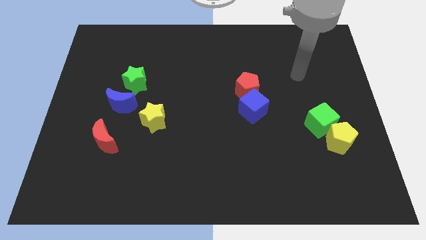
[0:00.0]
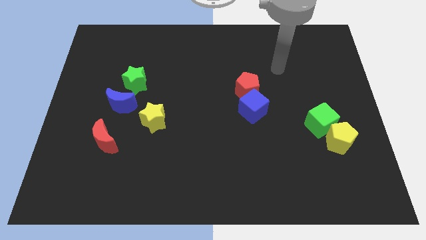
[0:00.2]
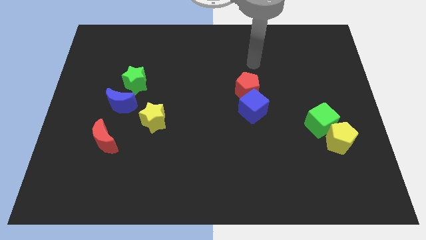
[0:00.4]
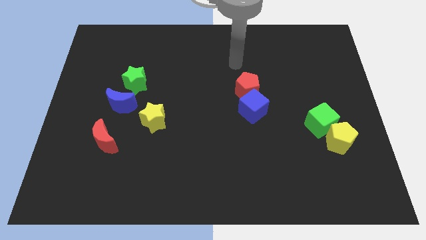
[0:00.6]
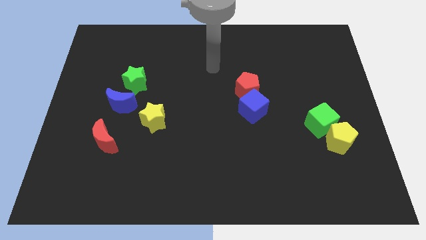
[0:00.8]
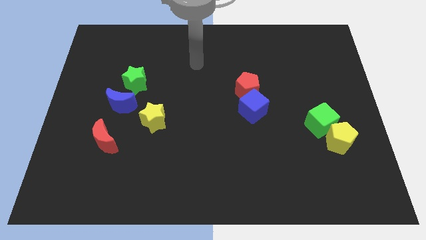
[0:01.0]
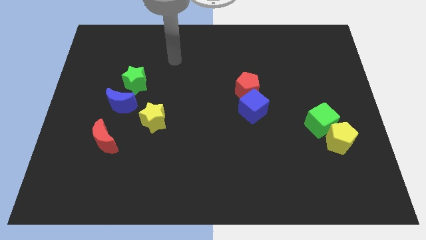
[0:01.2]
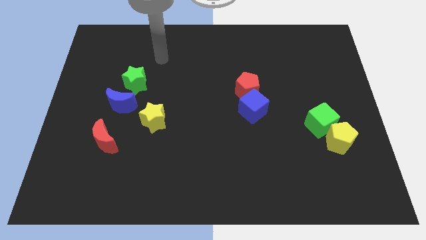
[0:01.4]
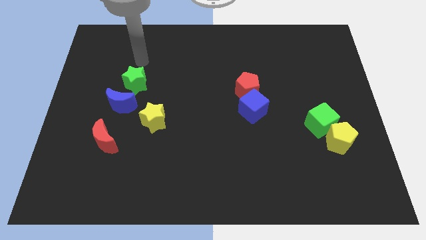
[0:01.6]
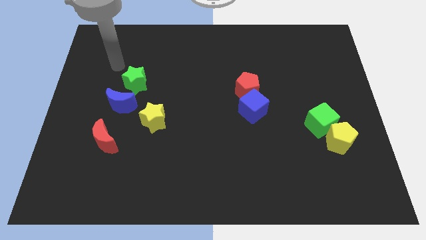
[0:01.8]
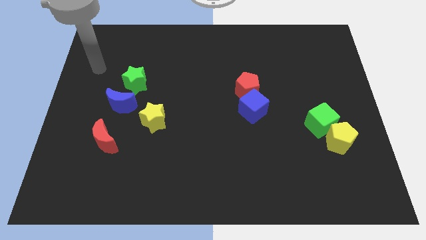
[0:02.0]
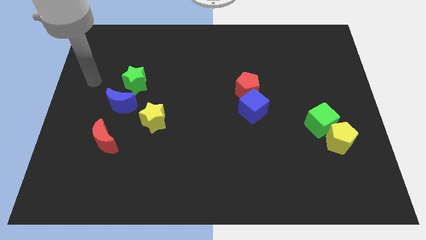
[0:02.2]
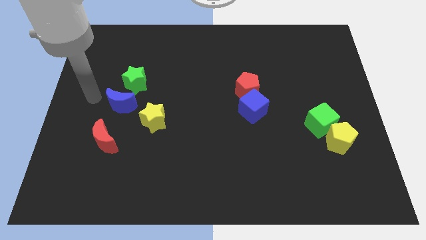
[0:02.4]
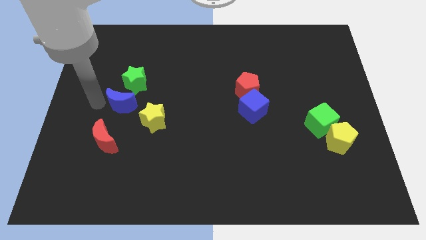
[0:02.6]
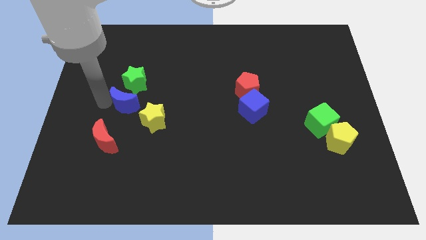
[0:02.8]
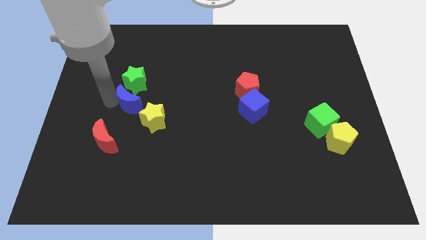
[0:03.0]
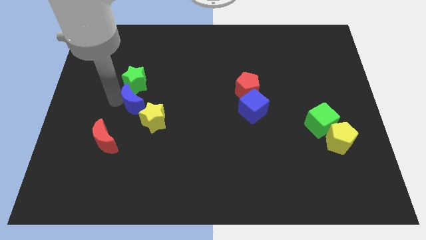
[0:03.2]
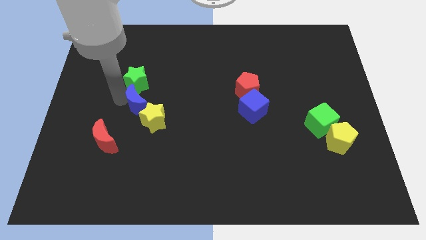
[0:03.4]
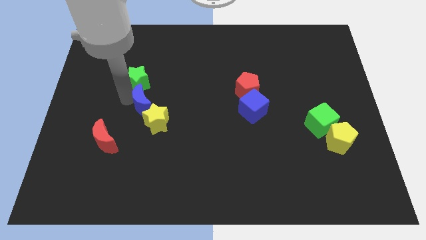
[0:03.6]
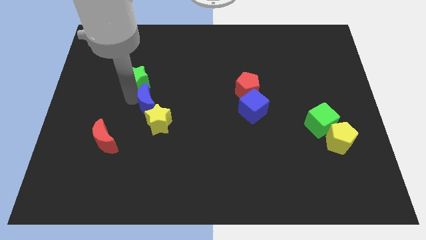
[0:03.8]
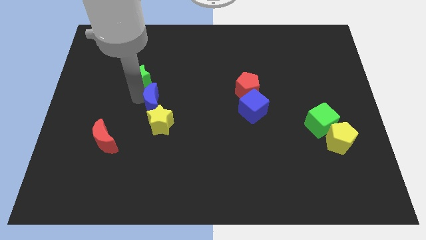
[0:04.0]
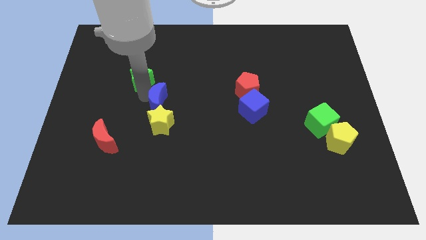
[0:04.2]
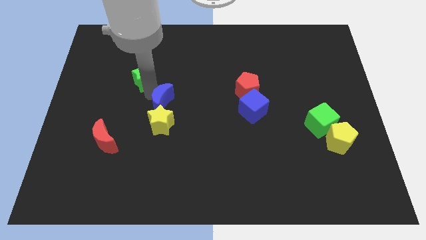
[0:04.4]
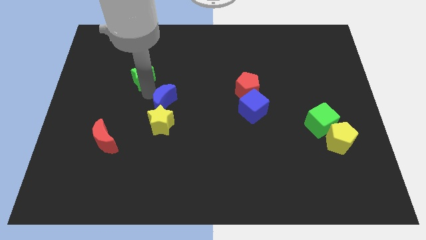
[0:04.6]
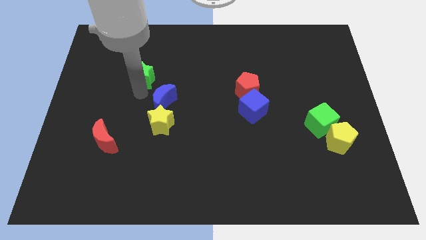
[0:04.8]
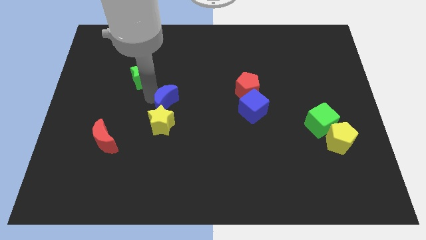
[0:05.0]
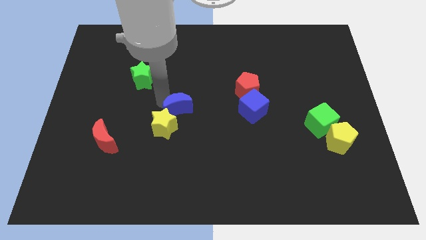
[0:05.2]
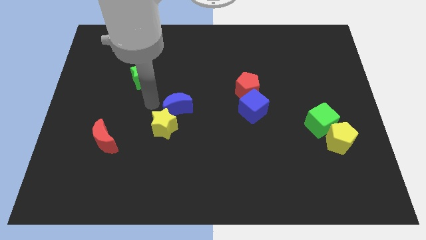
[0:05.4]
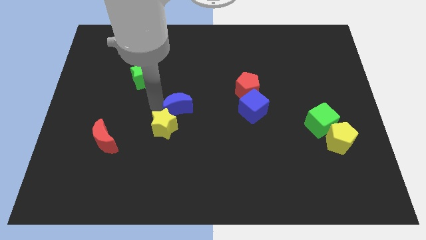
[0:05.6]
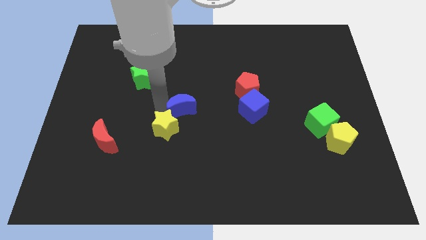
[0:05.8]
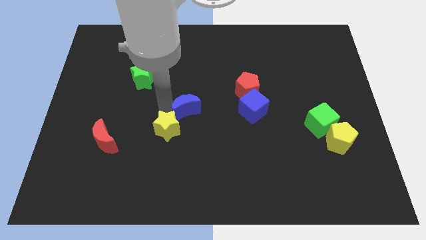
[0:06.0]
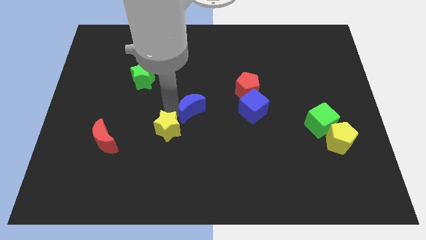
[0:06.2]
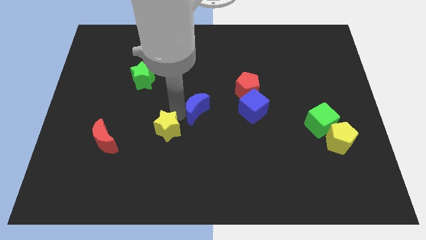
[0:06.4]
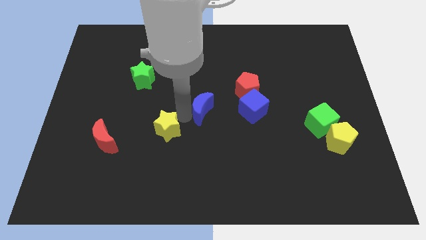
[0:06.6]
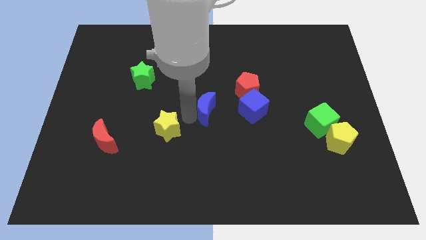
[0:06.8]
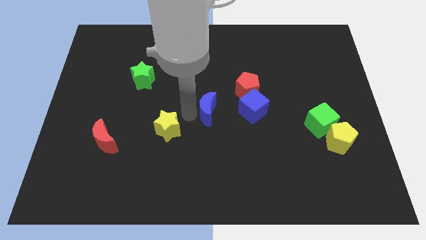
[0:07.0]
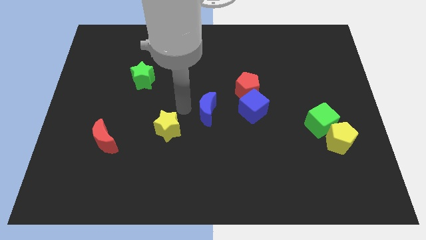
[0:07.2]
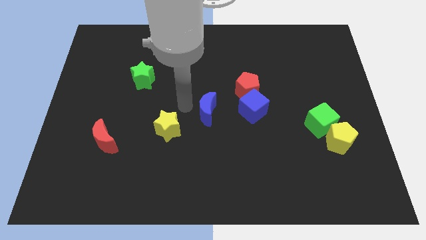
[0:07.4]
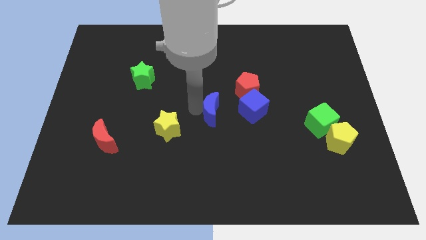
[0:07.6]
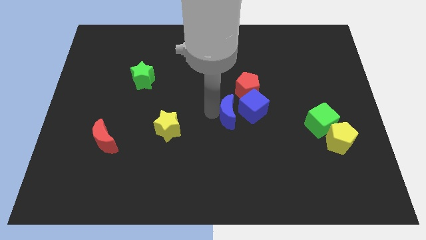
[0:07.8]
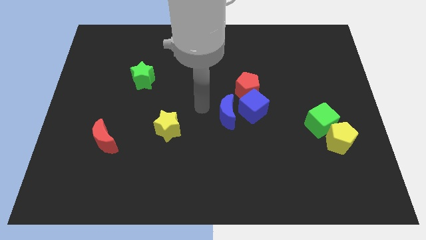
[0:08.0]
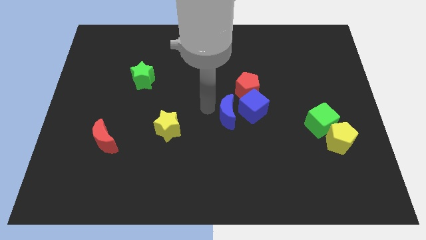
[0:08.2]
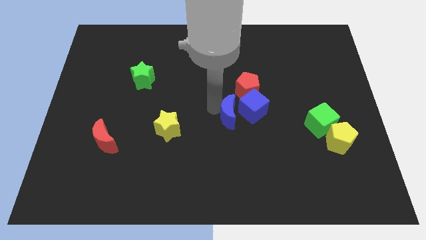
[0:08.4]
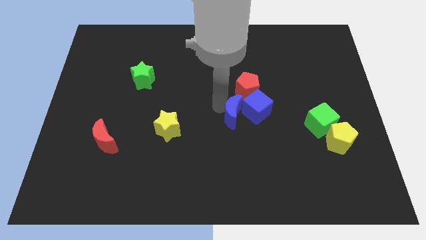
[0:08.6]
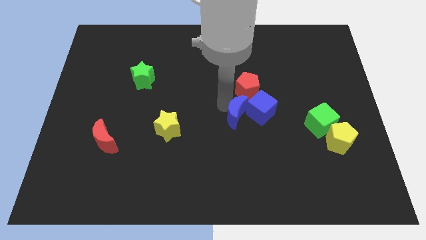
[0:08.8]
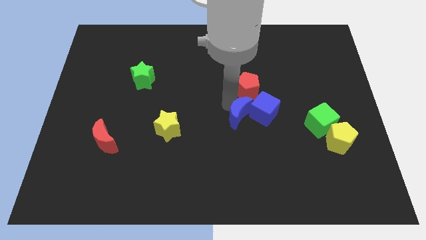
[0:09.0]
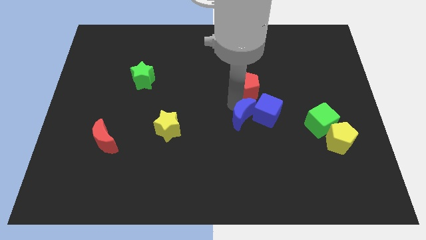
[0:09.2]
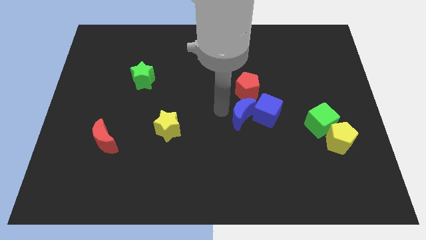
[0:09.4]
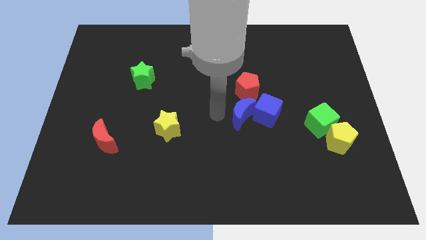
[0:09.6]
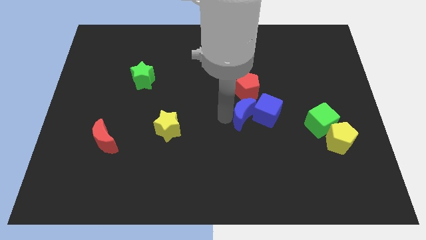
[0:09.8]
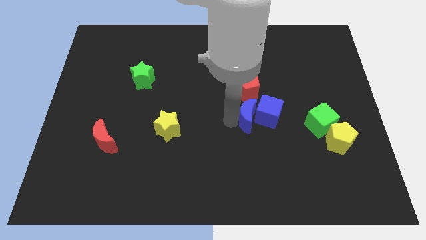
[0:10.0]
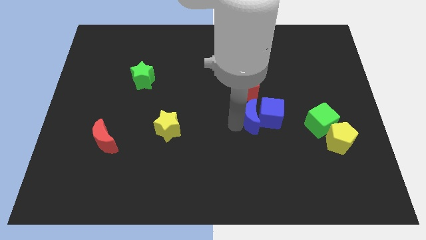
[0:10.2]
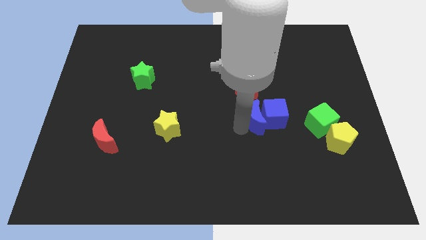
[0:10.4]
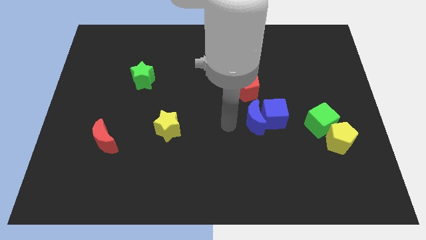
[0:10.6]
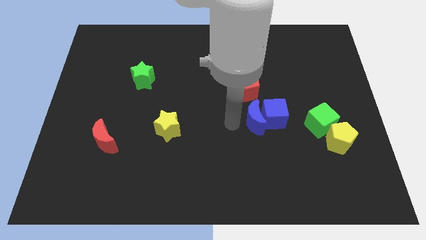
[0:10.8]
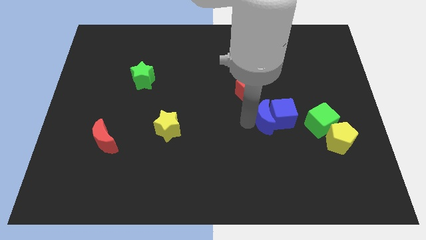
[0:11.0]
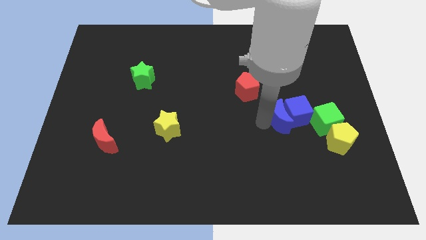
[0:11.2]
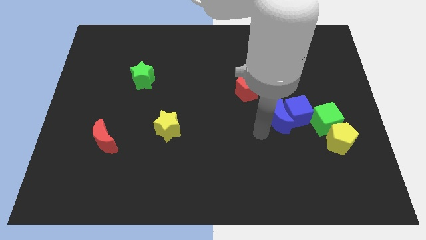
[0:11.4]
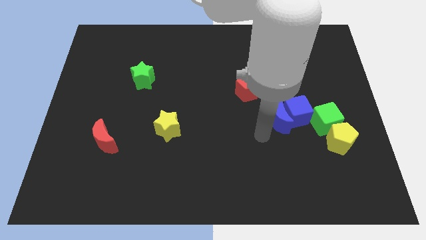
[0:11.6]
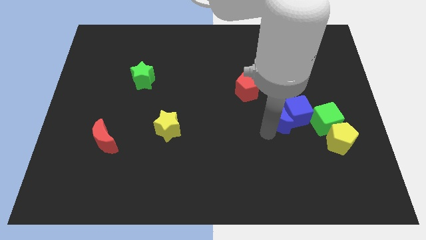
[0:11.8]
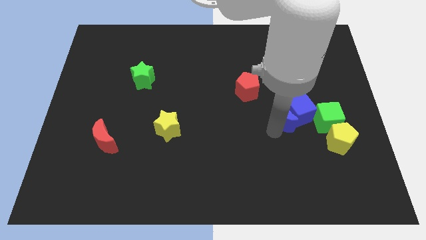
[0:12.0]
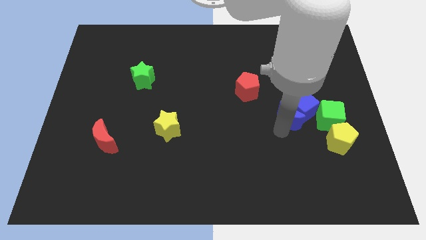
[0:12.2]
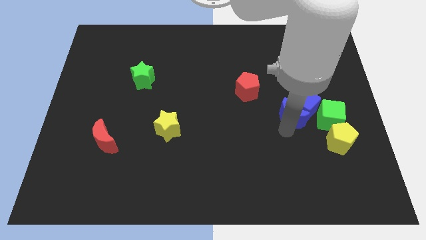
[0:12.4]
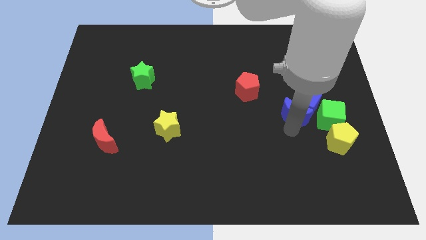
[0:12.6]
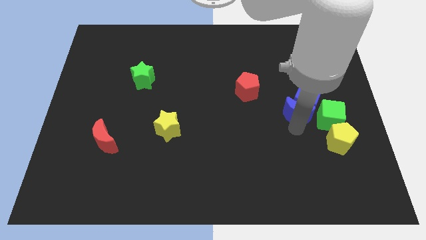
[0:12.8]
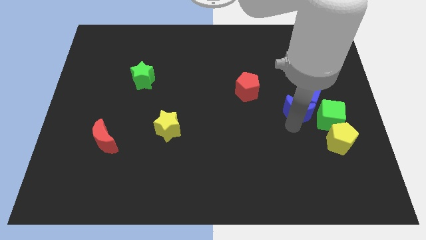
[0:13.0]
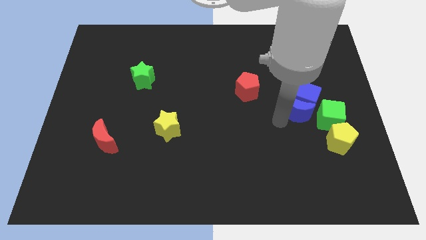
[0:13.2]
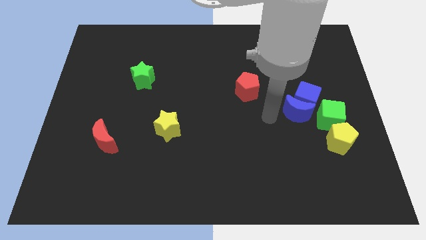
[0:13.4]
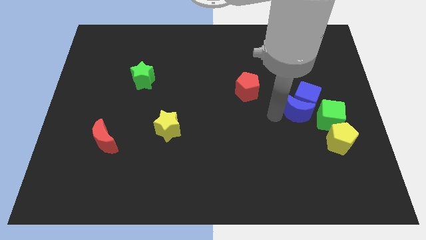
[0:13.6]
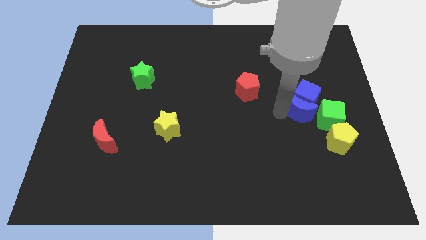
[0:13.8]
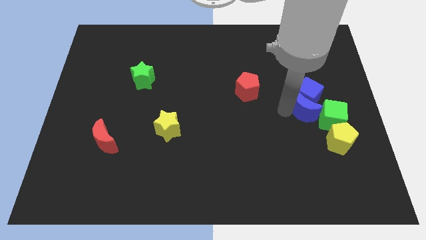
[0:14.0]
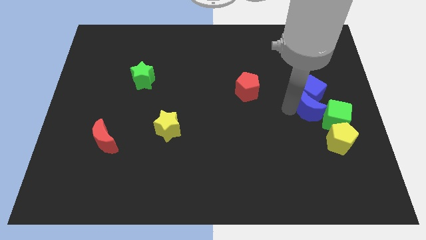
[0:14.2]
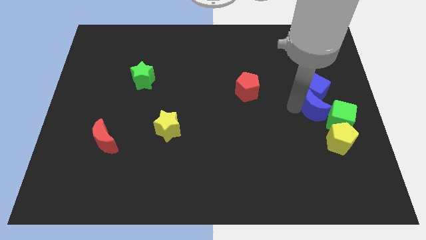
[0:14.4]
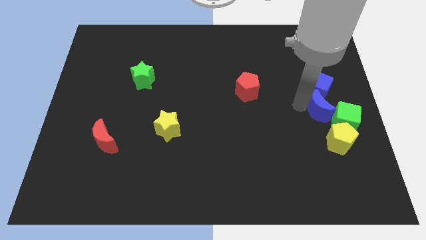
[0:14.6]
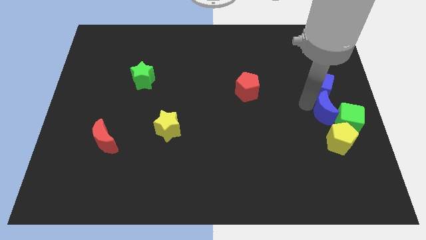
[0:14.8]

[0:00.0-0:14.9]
move the blue moon to the center right
